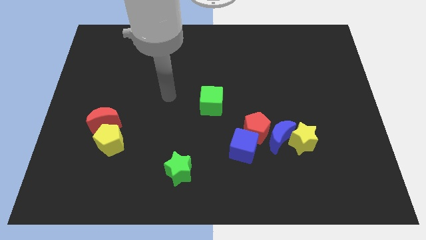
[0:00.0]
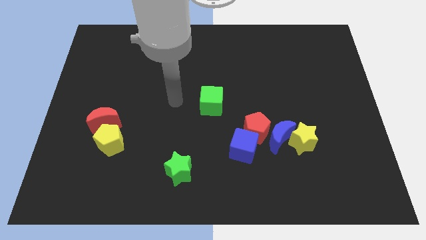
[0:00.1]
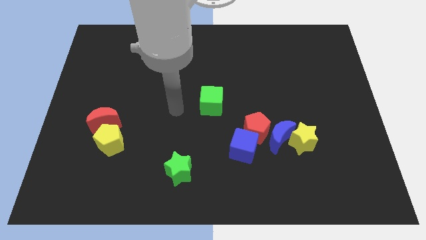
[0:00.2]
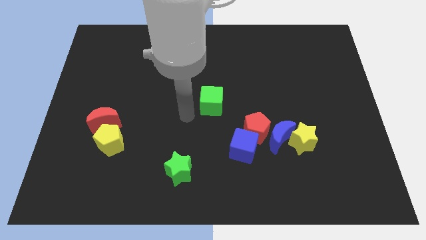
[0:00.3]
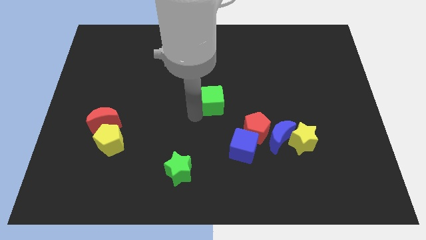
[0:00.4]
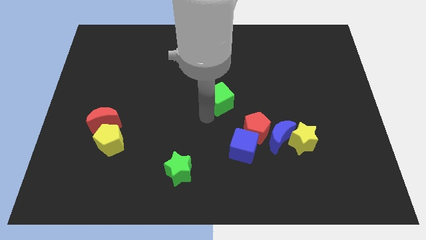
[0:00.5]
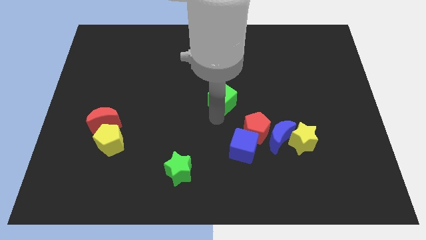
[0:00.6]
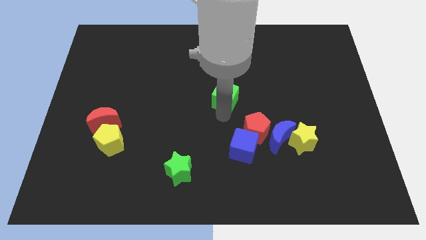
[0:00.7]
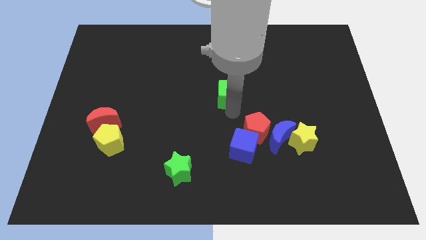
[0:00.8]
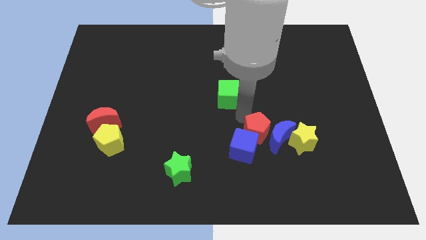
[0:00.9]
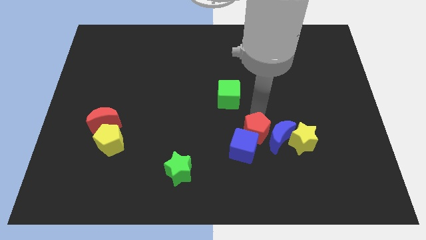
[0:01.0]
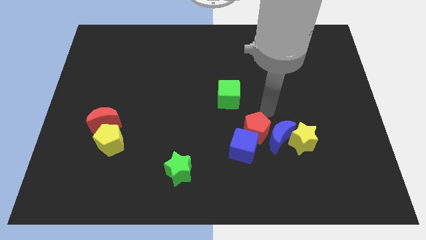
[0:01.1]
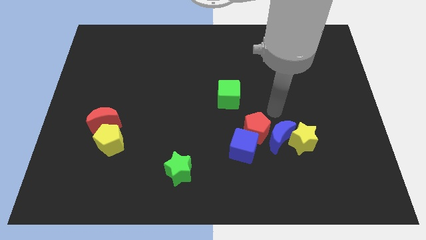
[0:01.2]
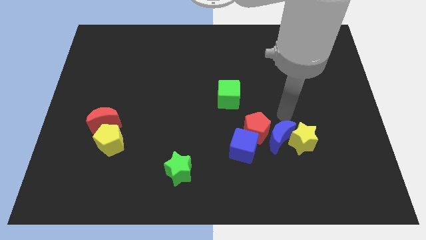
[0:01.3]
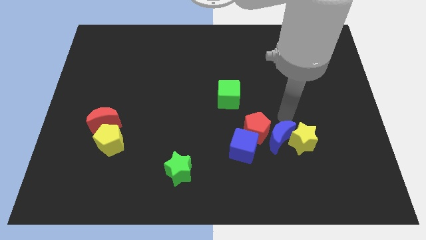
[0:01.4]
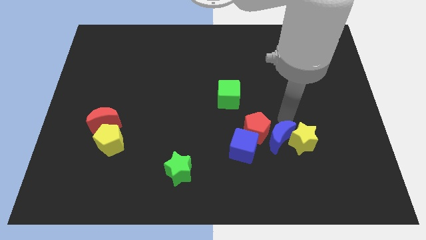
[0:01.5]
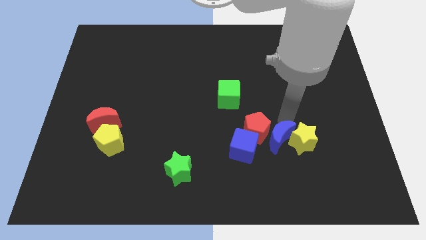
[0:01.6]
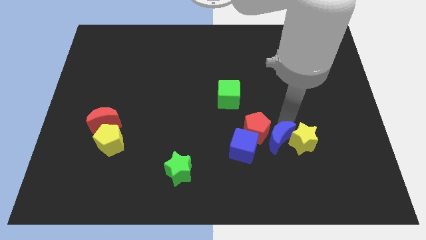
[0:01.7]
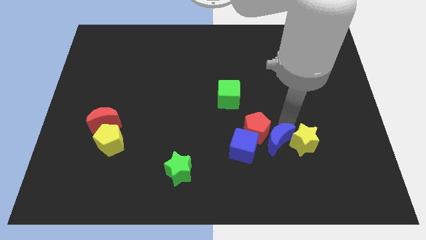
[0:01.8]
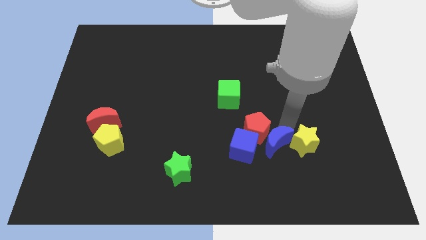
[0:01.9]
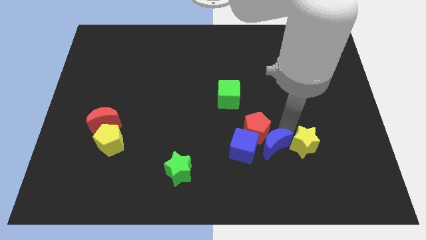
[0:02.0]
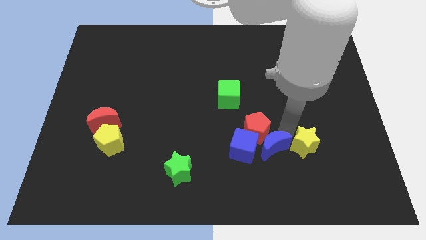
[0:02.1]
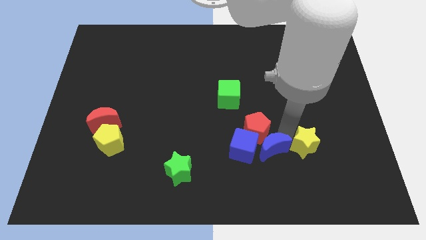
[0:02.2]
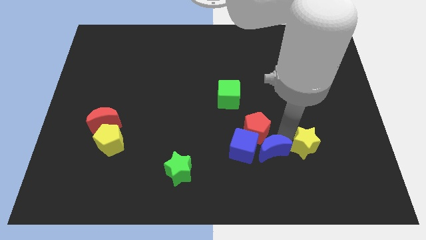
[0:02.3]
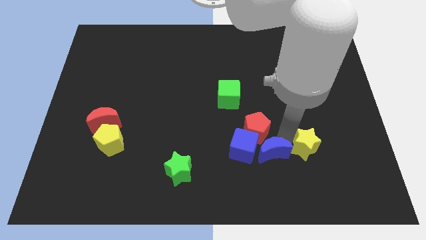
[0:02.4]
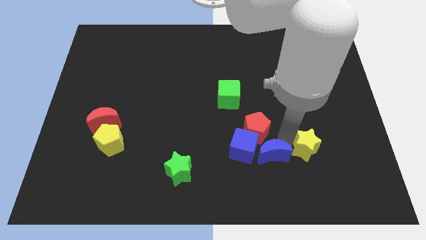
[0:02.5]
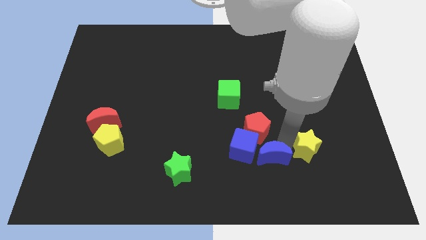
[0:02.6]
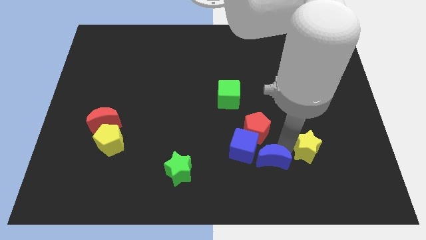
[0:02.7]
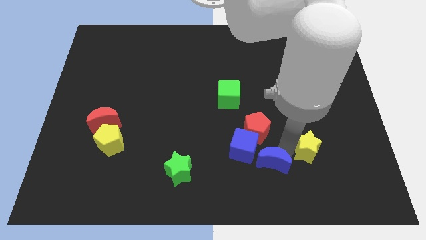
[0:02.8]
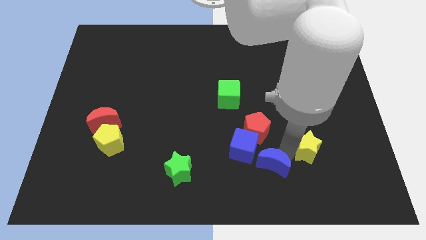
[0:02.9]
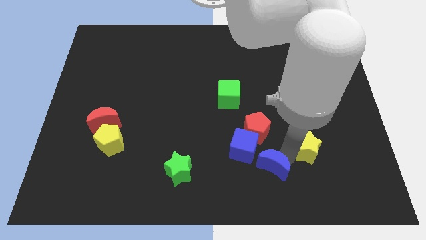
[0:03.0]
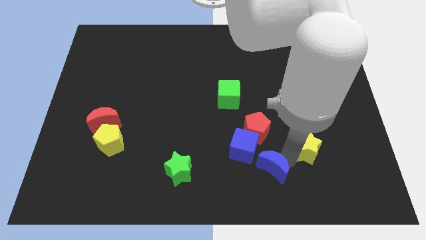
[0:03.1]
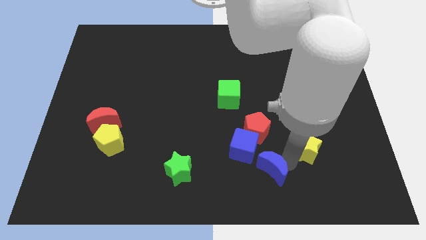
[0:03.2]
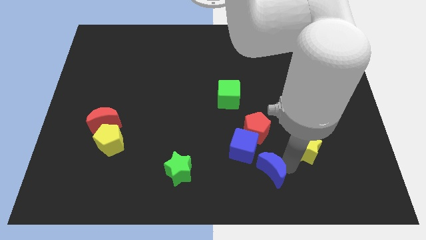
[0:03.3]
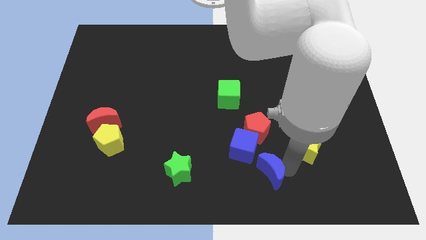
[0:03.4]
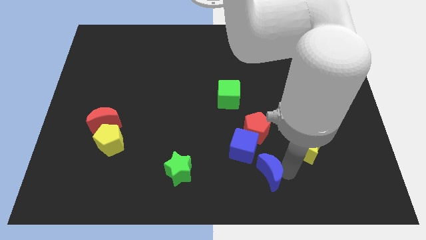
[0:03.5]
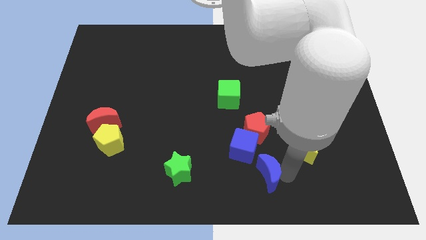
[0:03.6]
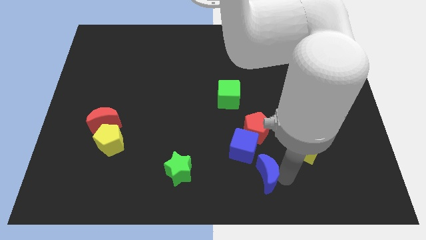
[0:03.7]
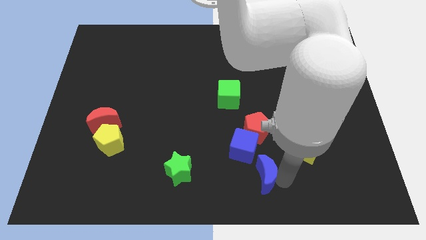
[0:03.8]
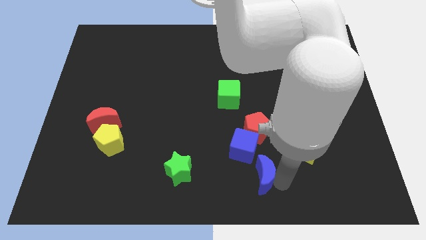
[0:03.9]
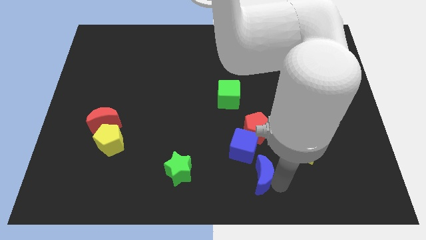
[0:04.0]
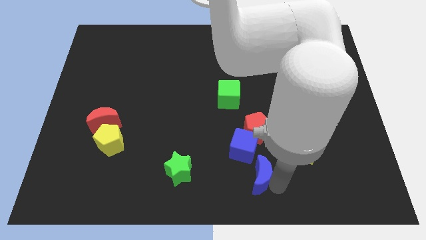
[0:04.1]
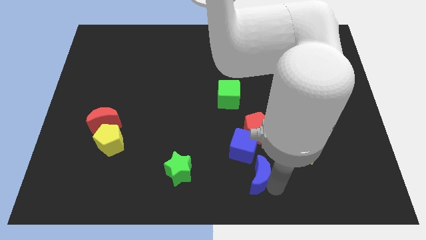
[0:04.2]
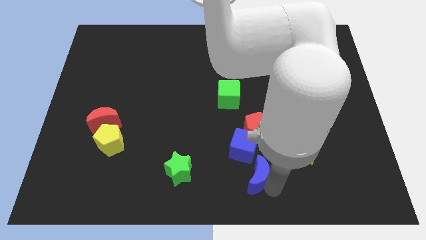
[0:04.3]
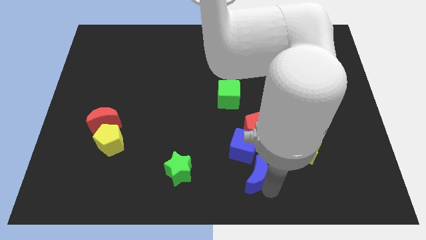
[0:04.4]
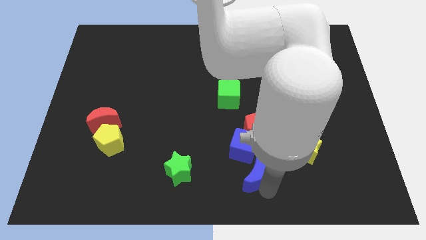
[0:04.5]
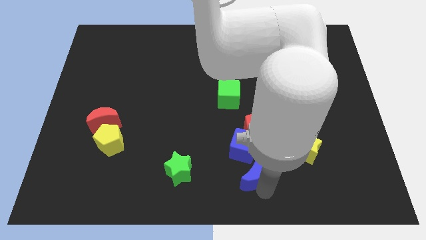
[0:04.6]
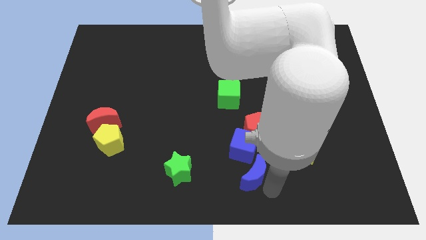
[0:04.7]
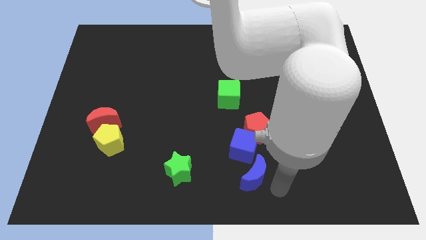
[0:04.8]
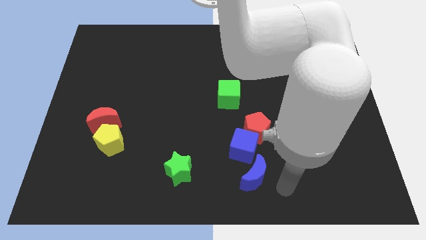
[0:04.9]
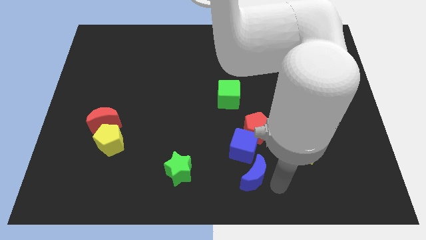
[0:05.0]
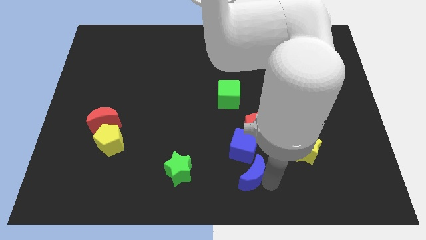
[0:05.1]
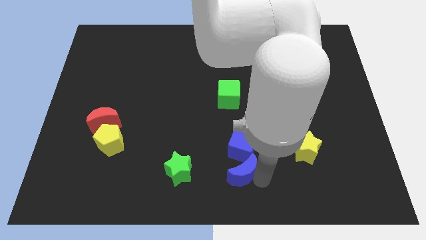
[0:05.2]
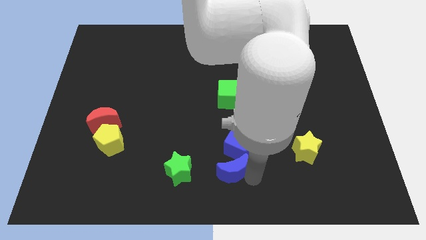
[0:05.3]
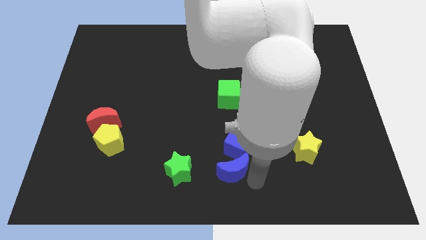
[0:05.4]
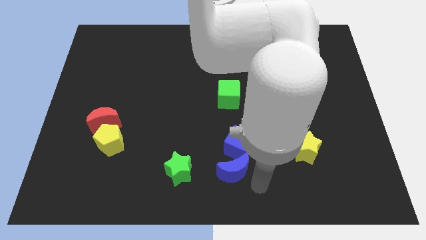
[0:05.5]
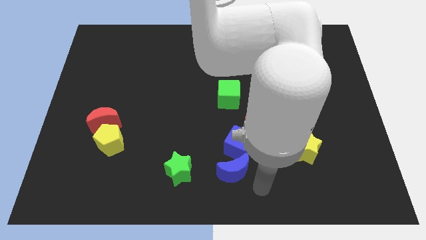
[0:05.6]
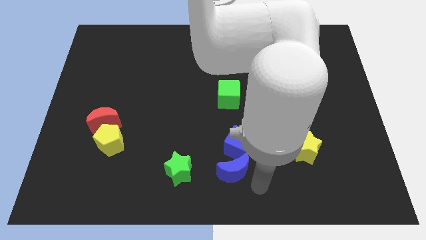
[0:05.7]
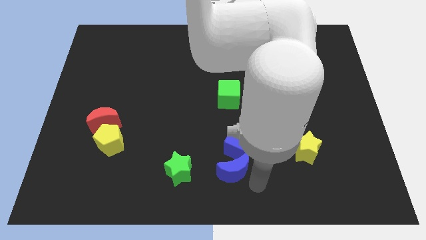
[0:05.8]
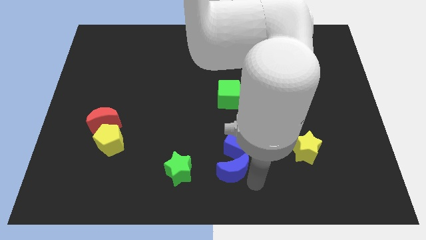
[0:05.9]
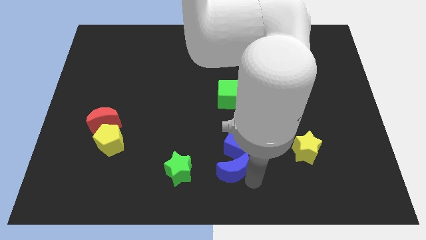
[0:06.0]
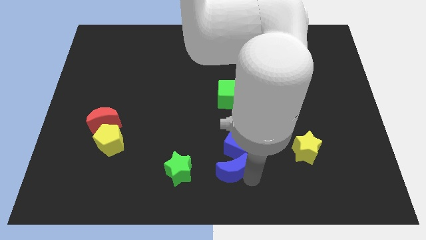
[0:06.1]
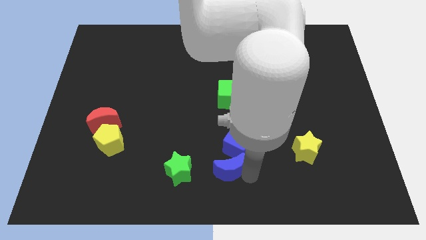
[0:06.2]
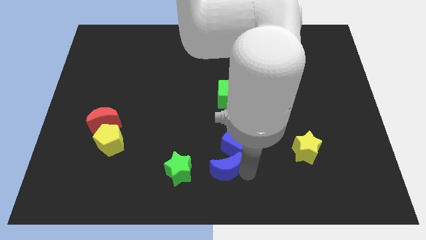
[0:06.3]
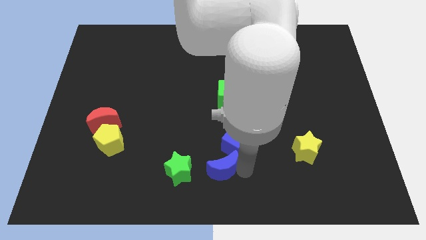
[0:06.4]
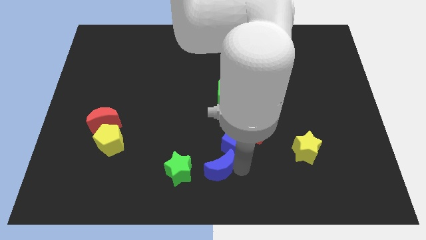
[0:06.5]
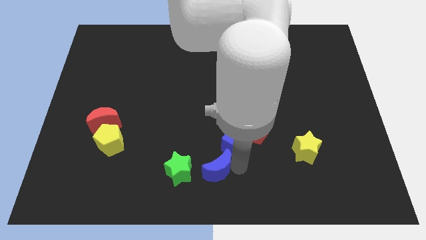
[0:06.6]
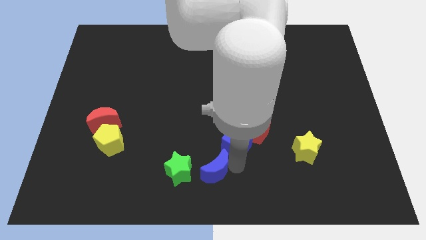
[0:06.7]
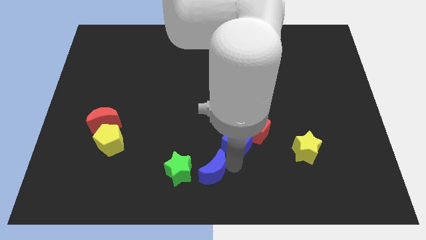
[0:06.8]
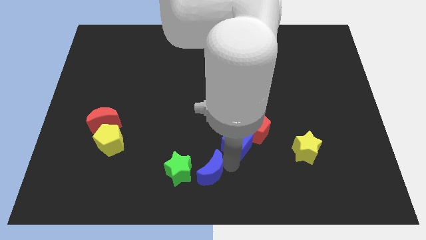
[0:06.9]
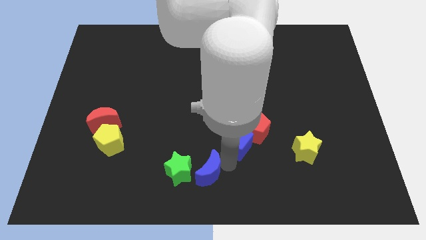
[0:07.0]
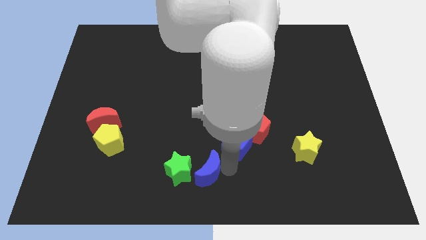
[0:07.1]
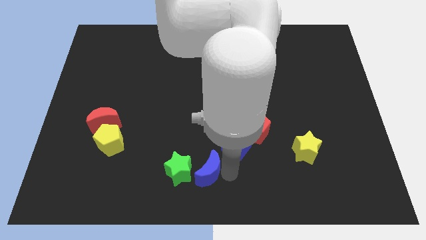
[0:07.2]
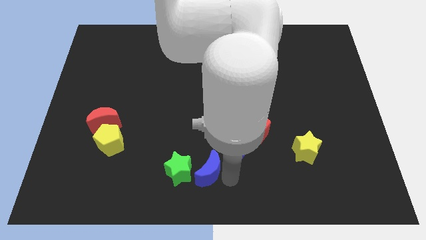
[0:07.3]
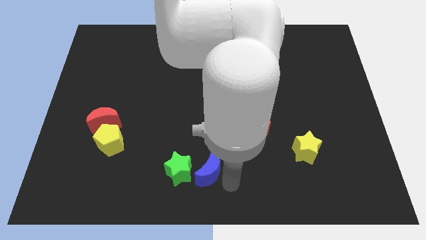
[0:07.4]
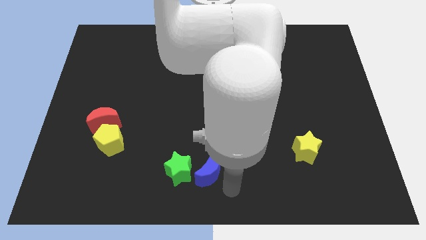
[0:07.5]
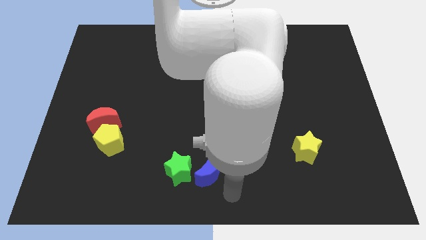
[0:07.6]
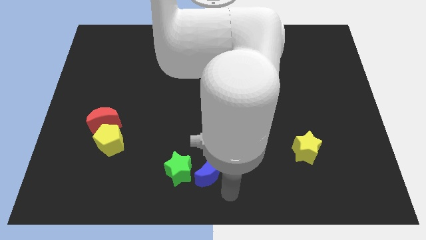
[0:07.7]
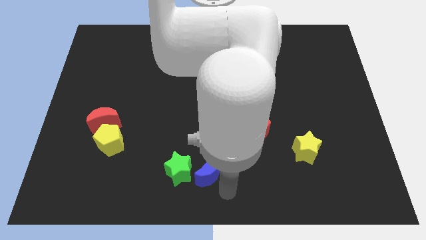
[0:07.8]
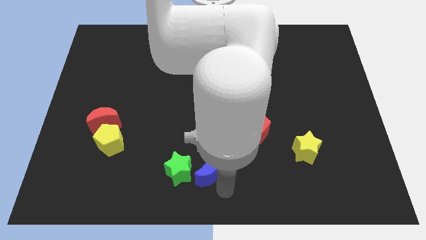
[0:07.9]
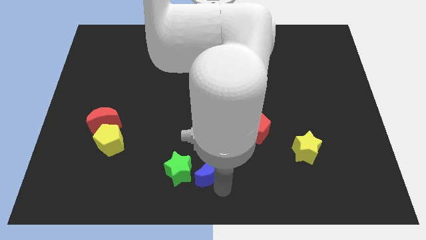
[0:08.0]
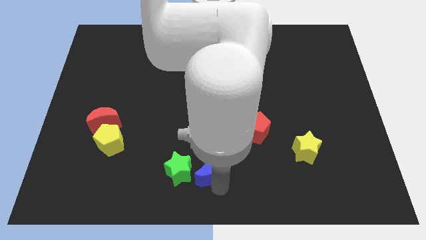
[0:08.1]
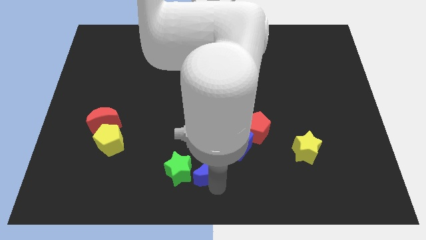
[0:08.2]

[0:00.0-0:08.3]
push the blue moon close to the green star
